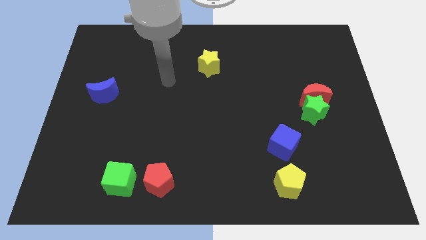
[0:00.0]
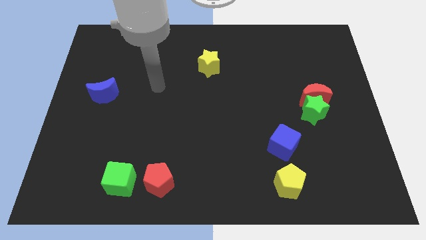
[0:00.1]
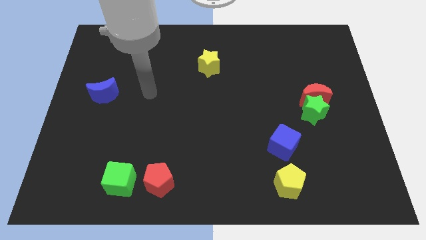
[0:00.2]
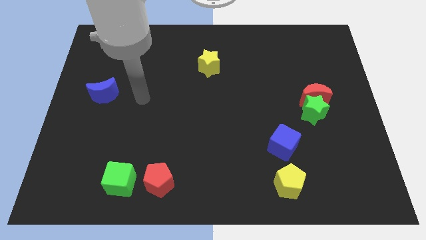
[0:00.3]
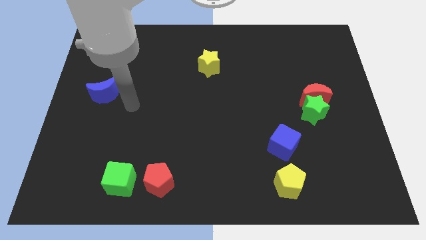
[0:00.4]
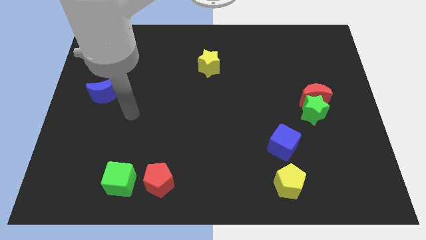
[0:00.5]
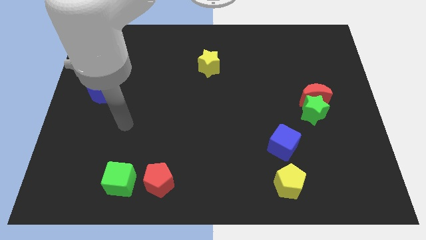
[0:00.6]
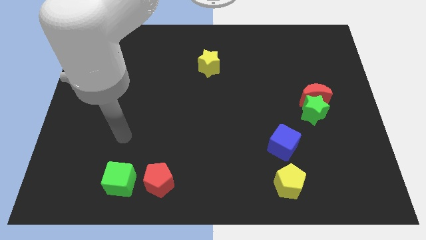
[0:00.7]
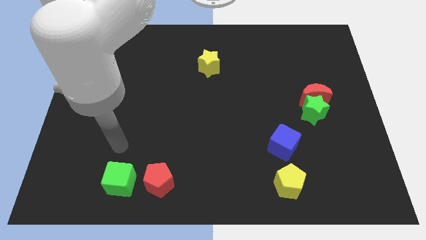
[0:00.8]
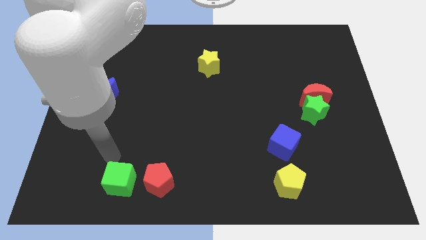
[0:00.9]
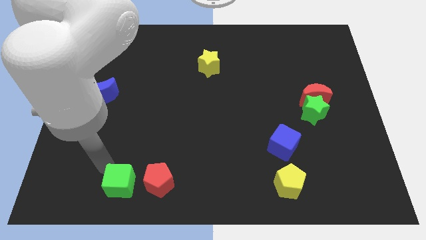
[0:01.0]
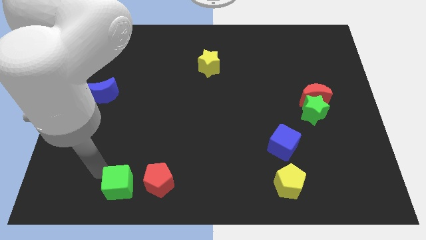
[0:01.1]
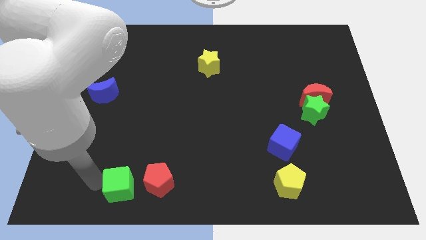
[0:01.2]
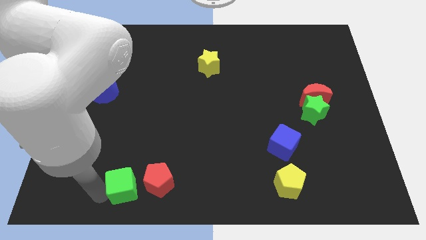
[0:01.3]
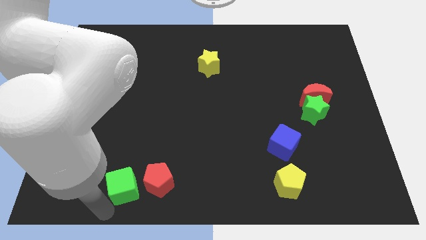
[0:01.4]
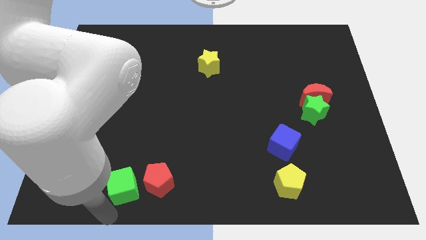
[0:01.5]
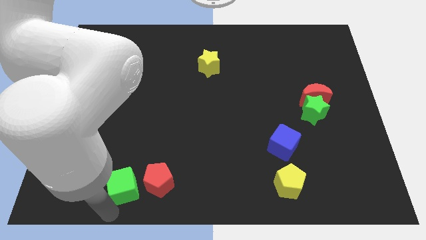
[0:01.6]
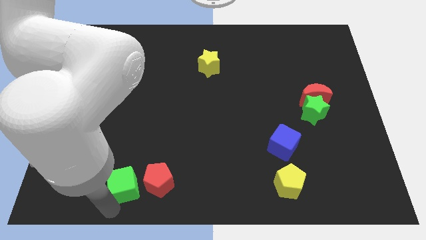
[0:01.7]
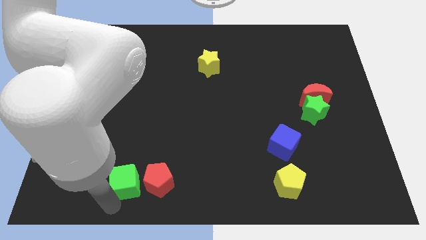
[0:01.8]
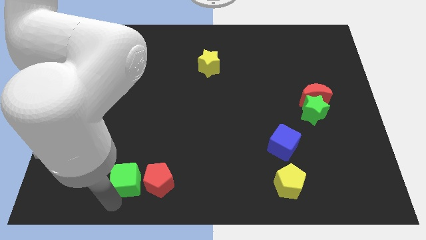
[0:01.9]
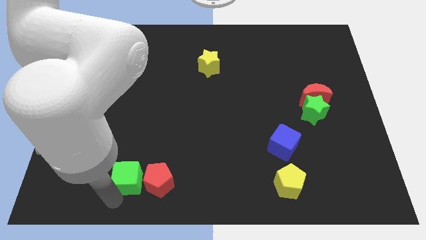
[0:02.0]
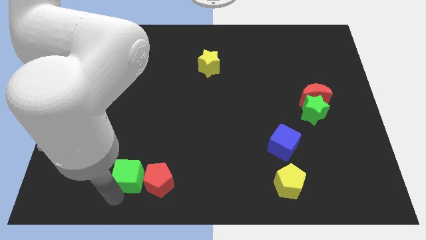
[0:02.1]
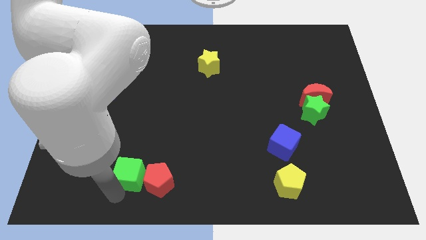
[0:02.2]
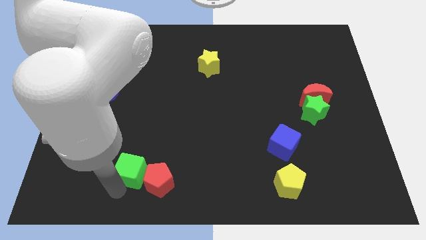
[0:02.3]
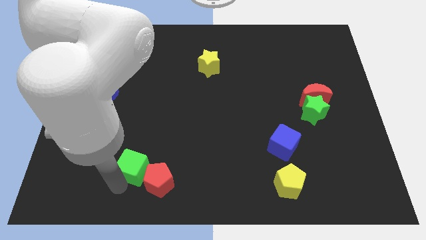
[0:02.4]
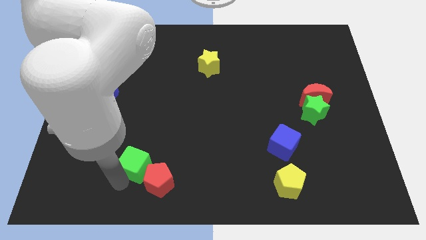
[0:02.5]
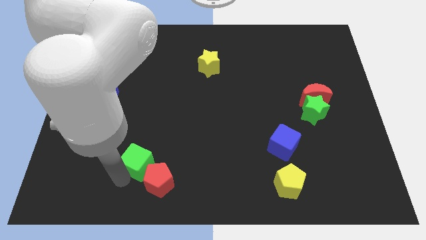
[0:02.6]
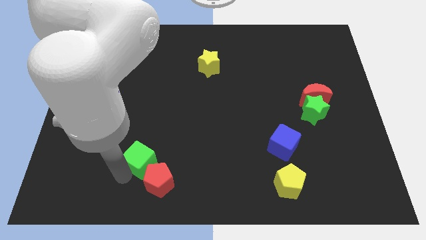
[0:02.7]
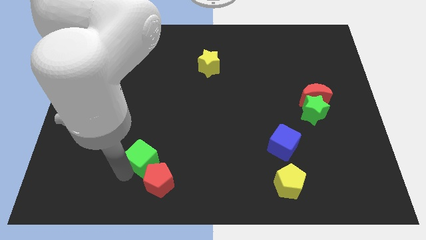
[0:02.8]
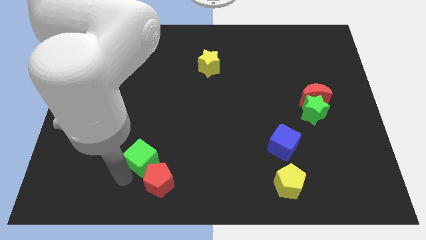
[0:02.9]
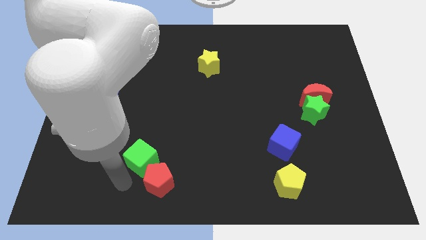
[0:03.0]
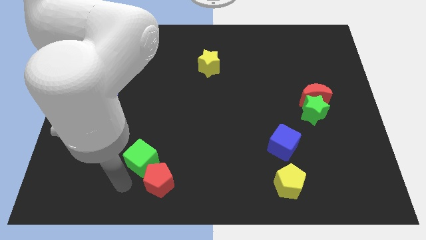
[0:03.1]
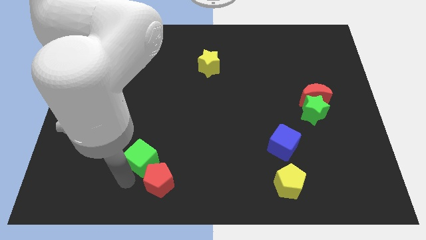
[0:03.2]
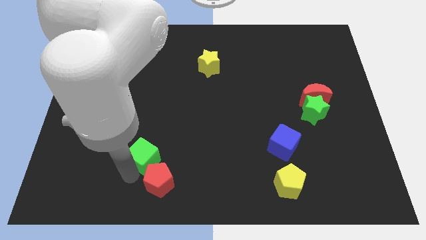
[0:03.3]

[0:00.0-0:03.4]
push the green cube upwards and right a bit

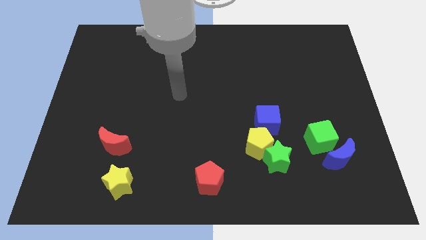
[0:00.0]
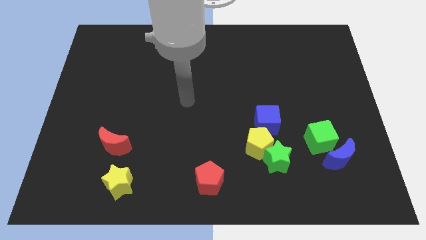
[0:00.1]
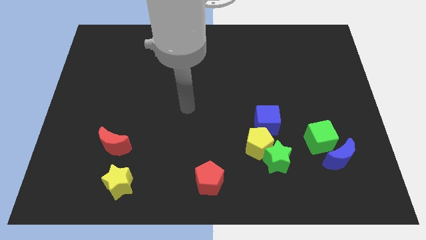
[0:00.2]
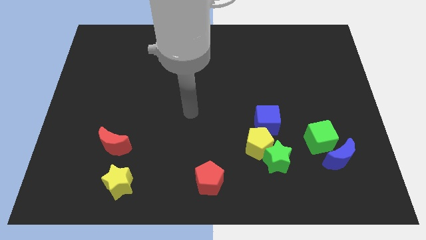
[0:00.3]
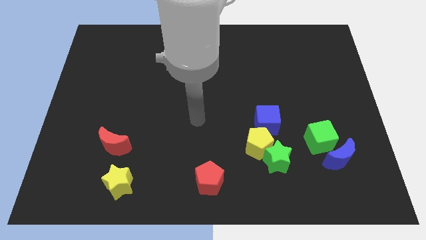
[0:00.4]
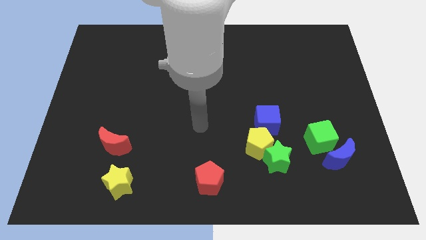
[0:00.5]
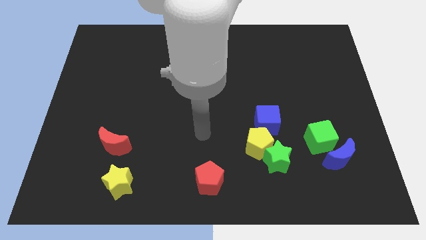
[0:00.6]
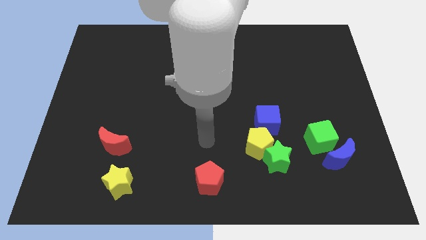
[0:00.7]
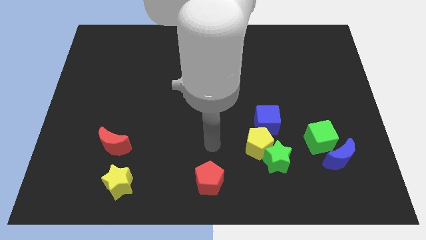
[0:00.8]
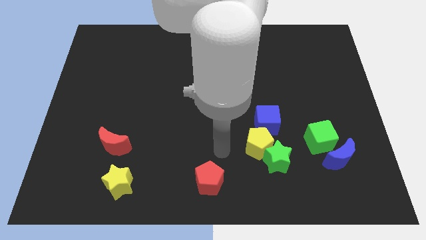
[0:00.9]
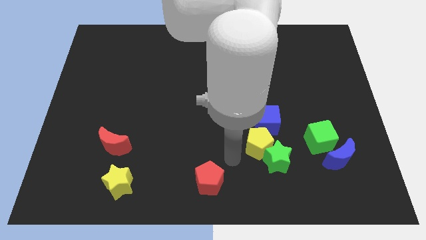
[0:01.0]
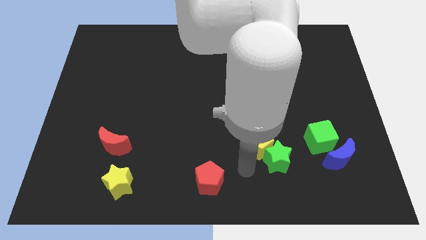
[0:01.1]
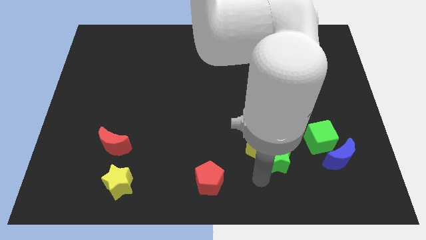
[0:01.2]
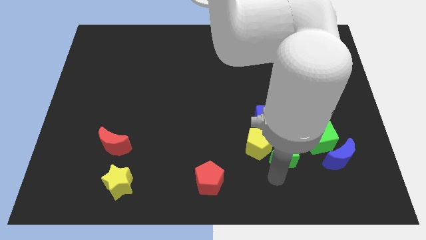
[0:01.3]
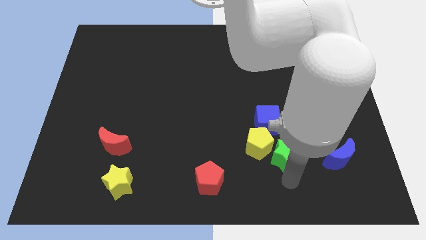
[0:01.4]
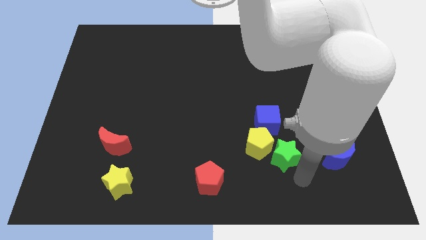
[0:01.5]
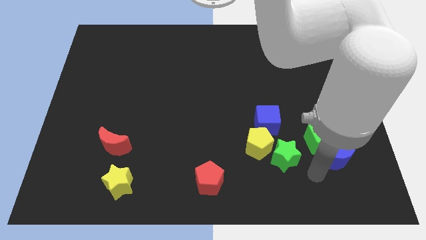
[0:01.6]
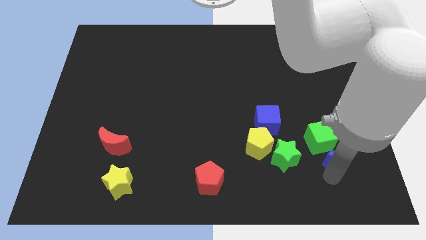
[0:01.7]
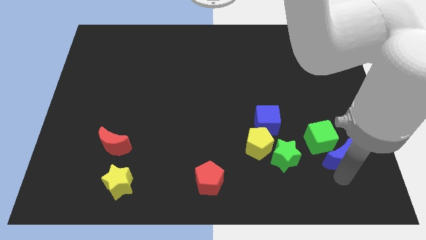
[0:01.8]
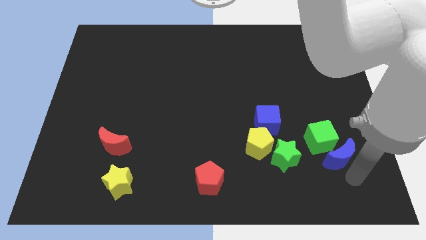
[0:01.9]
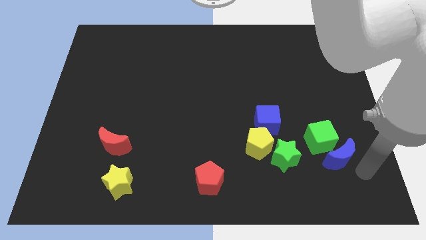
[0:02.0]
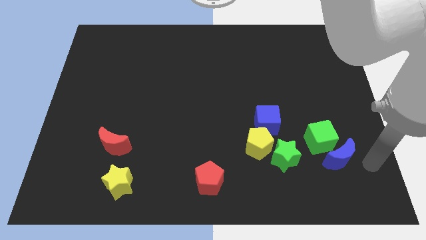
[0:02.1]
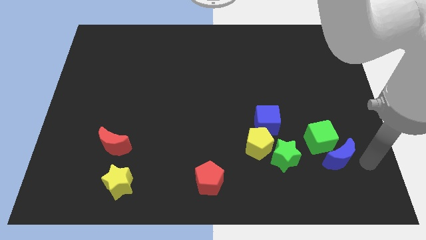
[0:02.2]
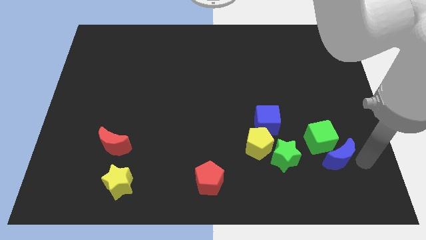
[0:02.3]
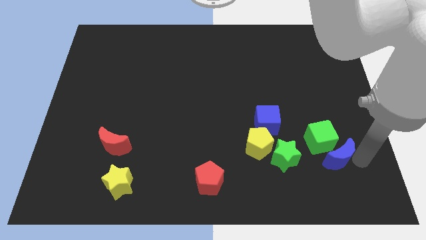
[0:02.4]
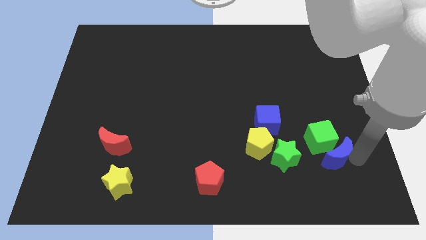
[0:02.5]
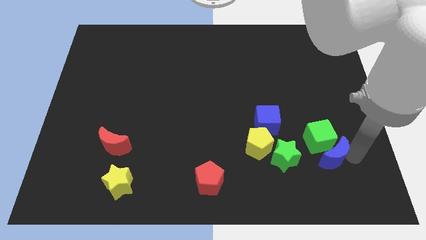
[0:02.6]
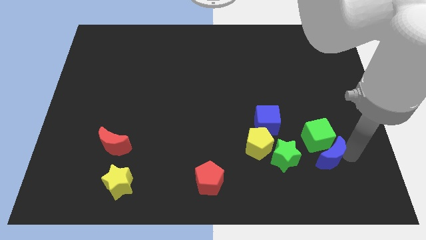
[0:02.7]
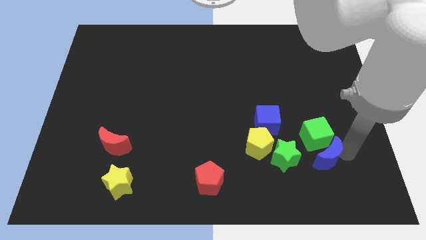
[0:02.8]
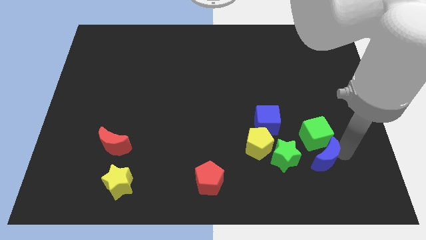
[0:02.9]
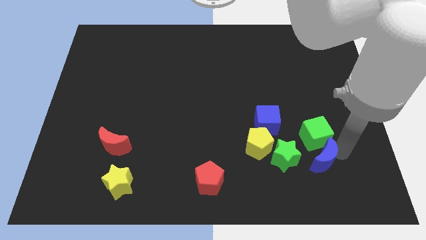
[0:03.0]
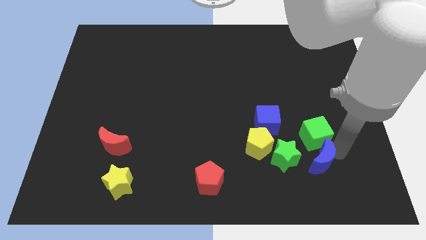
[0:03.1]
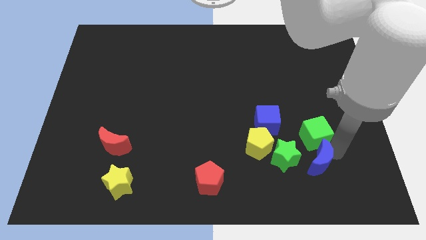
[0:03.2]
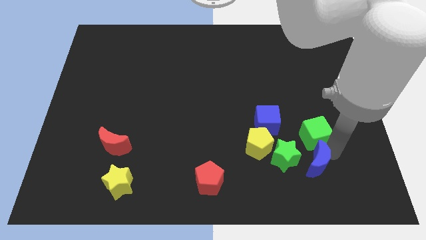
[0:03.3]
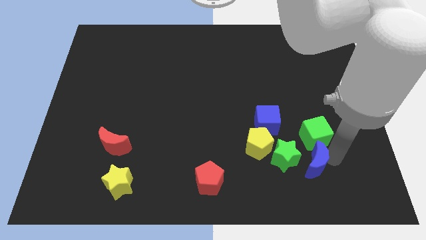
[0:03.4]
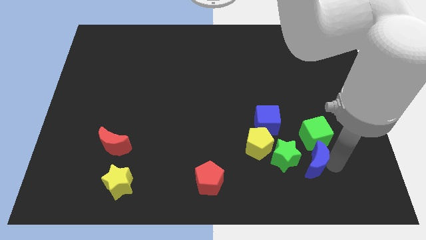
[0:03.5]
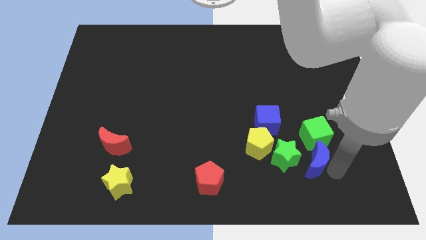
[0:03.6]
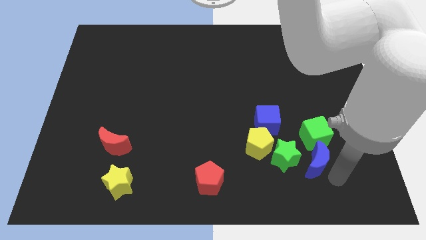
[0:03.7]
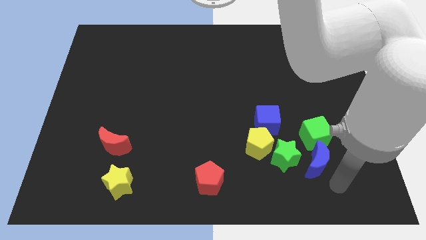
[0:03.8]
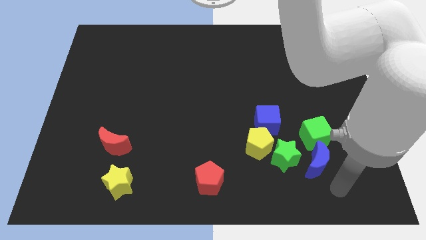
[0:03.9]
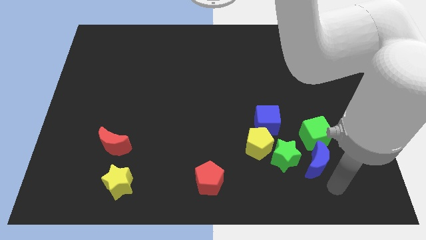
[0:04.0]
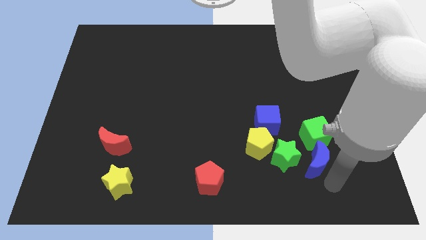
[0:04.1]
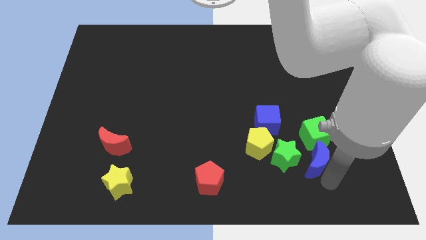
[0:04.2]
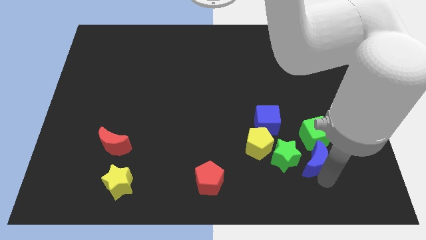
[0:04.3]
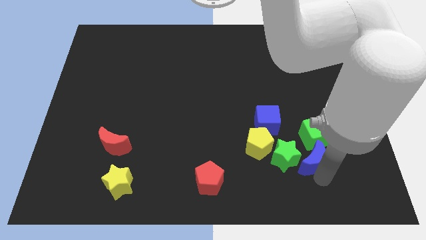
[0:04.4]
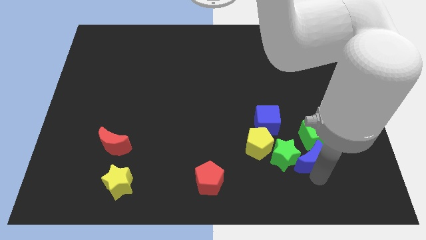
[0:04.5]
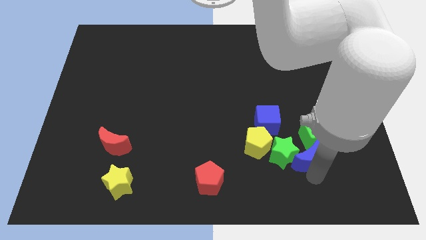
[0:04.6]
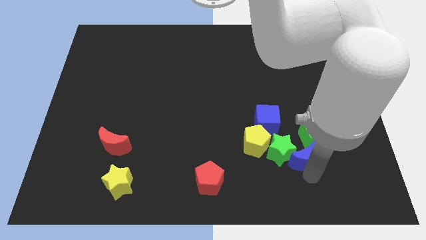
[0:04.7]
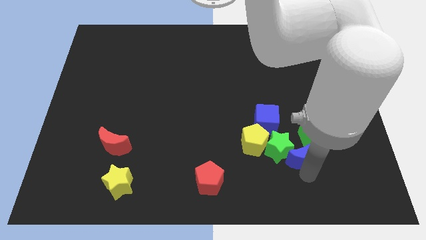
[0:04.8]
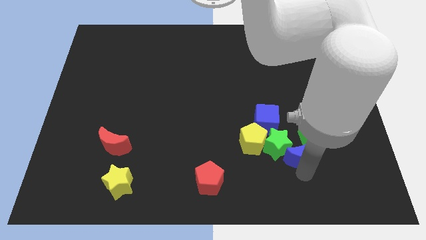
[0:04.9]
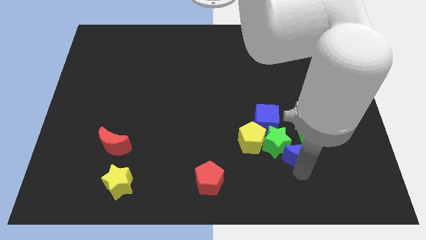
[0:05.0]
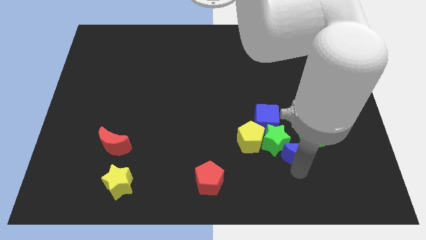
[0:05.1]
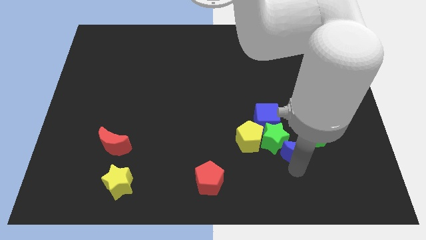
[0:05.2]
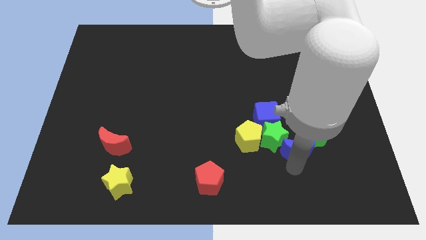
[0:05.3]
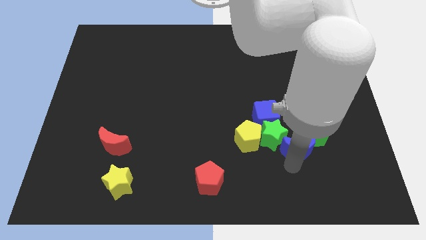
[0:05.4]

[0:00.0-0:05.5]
move the blue moon upwards and then left somewhat
